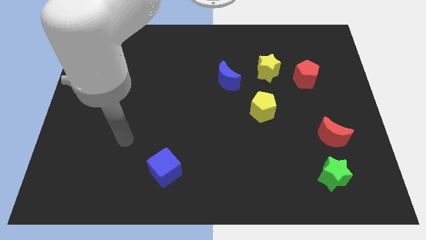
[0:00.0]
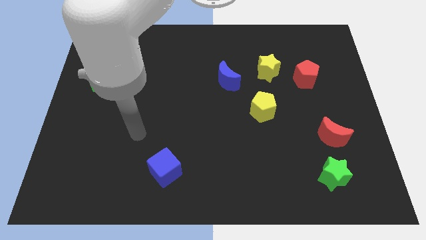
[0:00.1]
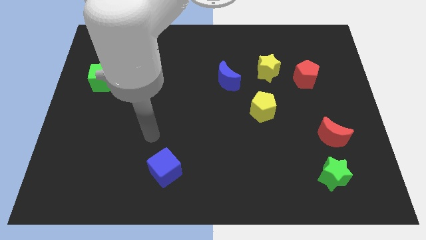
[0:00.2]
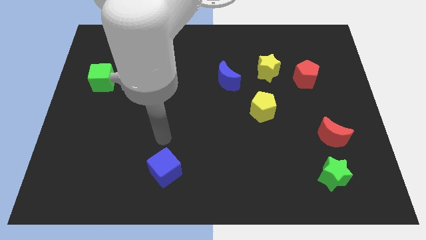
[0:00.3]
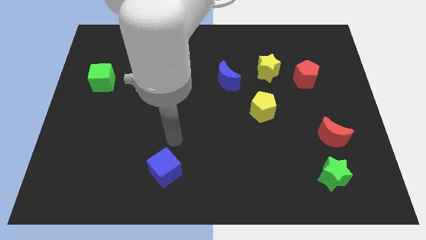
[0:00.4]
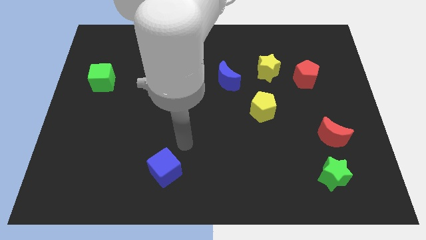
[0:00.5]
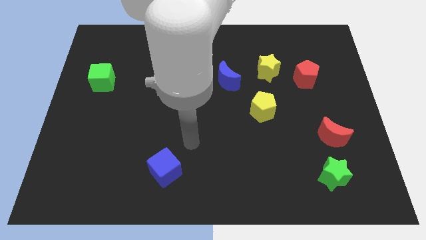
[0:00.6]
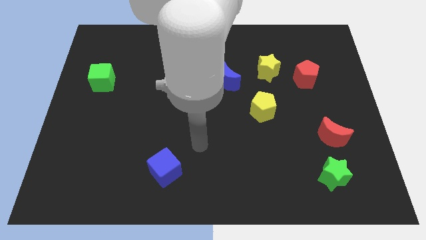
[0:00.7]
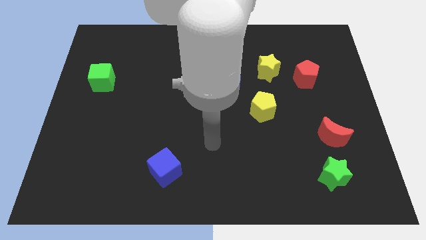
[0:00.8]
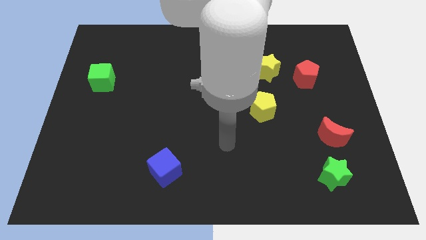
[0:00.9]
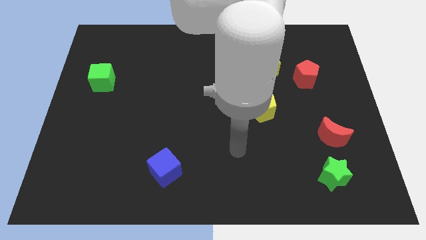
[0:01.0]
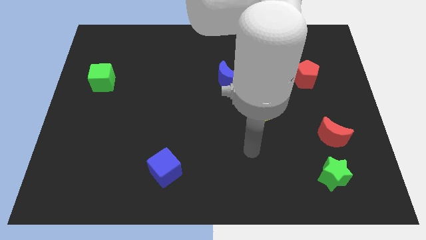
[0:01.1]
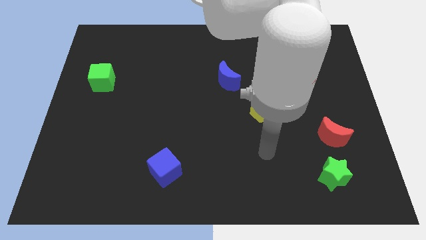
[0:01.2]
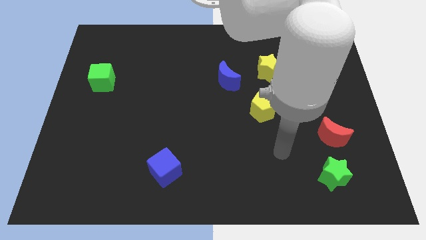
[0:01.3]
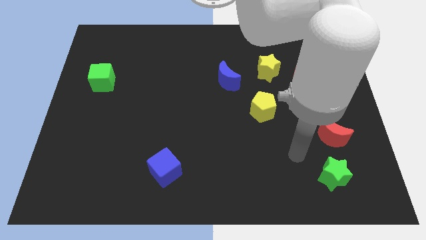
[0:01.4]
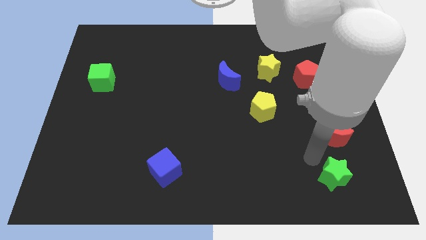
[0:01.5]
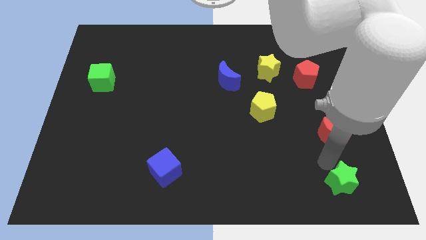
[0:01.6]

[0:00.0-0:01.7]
move the red moon away from the green star

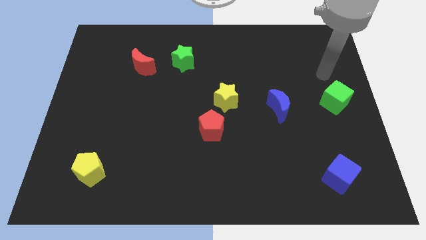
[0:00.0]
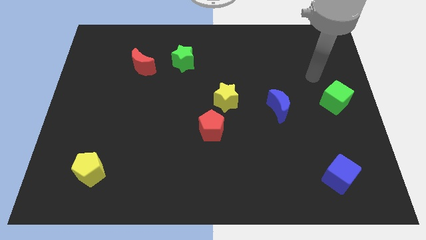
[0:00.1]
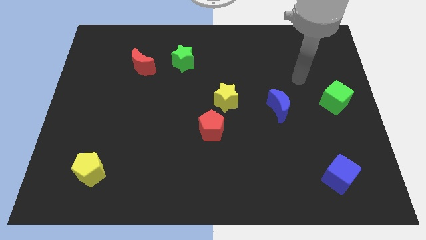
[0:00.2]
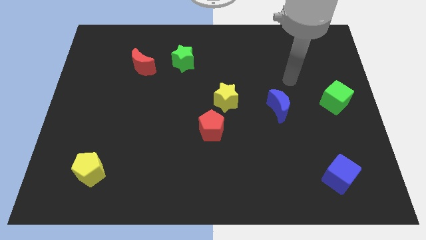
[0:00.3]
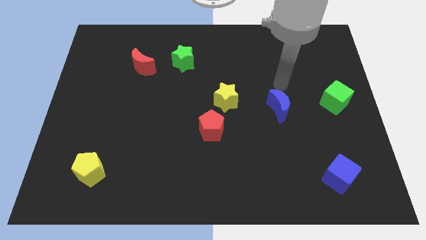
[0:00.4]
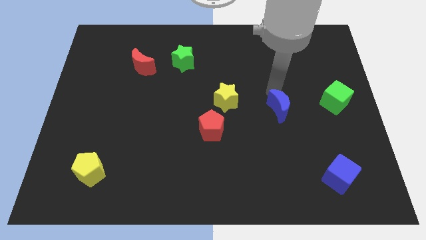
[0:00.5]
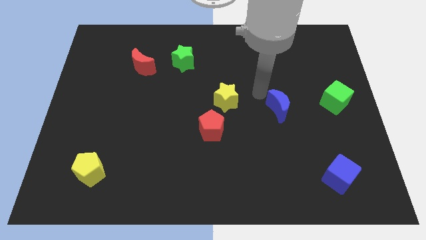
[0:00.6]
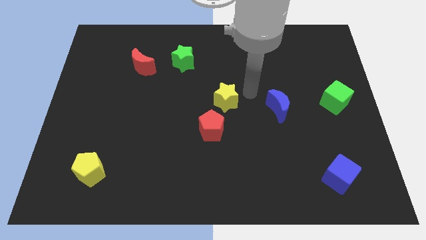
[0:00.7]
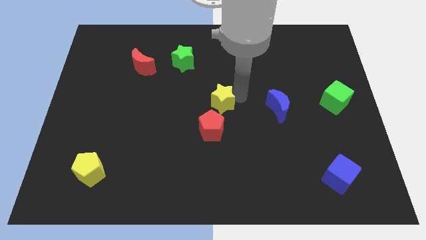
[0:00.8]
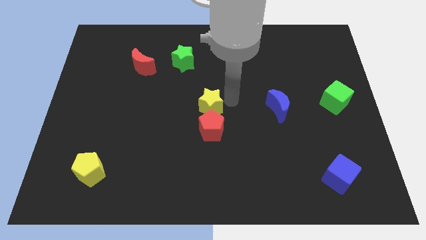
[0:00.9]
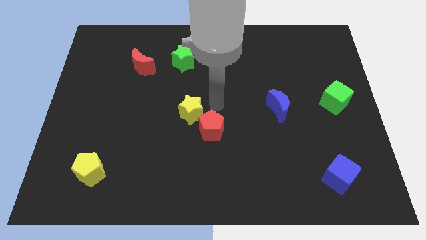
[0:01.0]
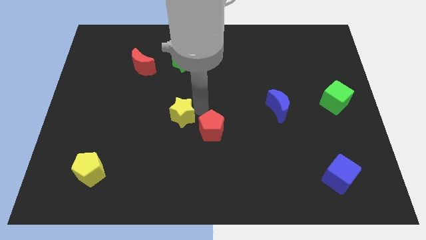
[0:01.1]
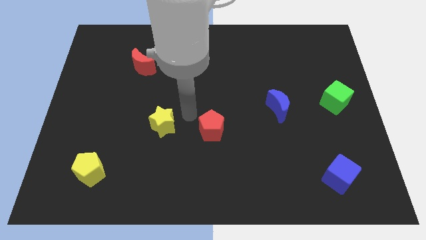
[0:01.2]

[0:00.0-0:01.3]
move the red pentagon away from the yellow star

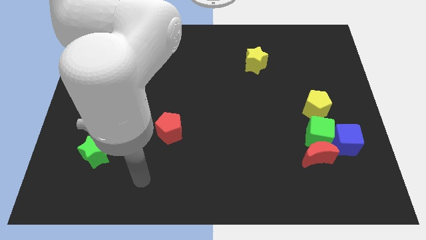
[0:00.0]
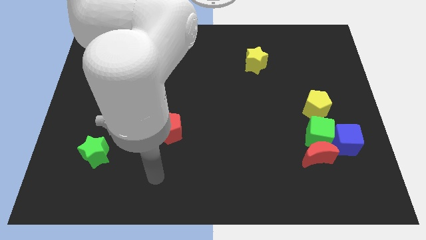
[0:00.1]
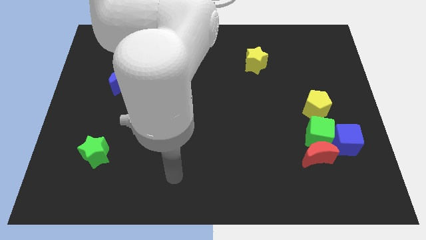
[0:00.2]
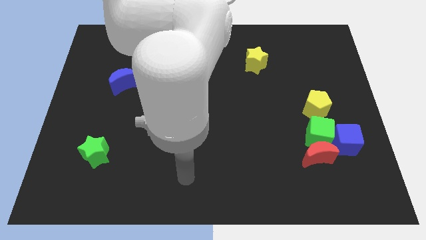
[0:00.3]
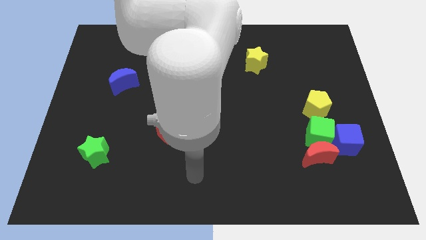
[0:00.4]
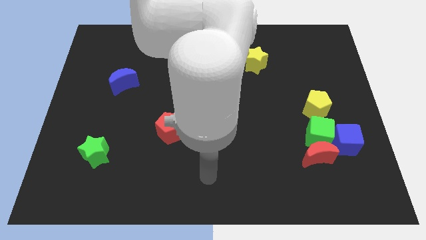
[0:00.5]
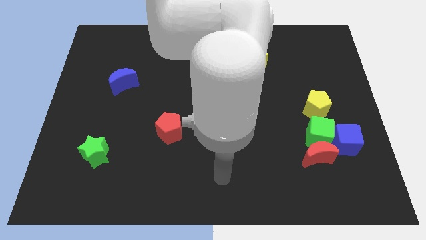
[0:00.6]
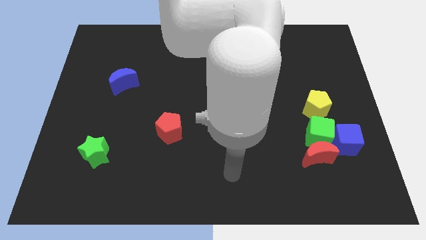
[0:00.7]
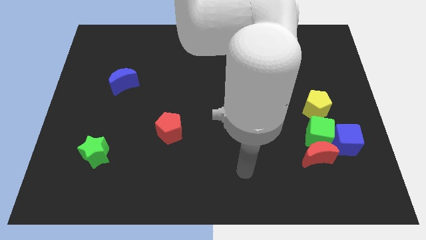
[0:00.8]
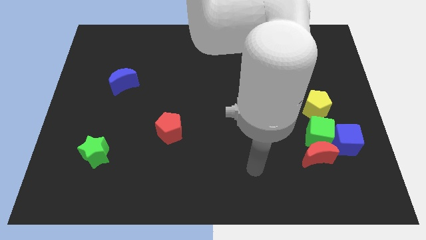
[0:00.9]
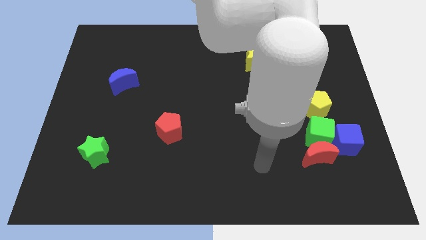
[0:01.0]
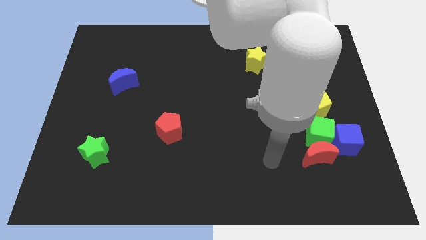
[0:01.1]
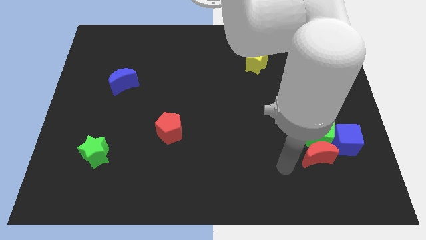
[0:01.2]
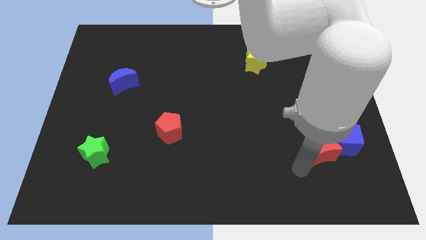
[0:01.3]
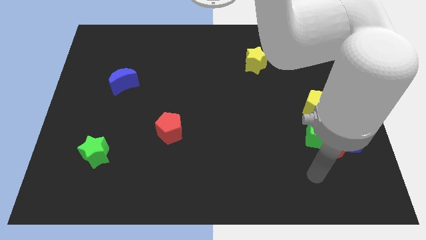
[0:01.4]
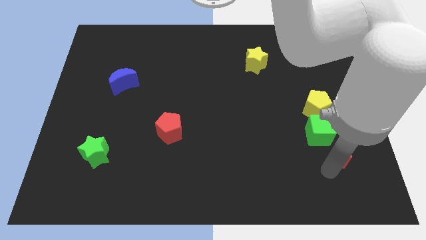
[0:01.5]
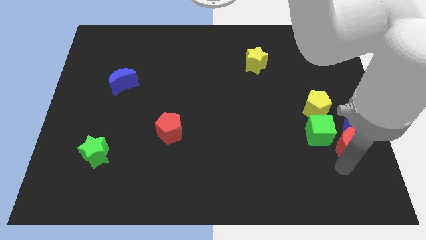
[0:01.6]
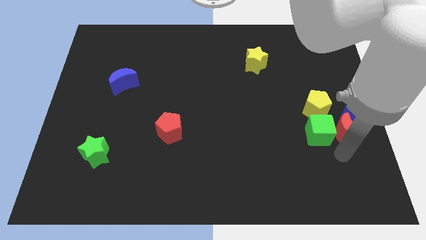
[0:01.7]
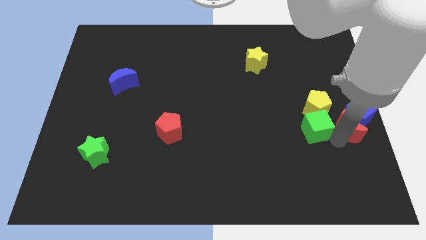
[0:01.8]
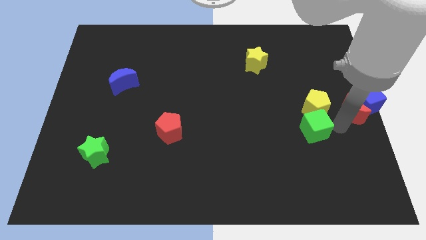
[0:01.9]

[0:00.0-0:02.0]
move the green cube away from the group of blocks

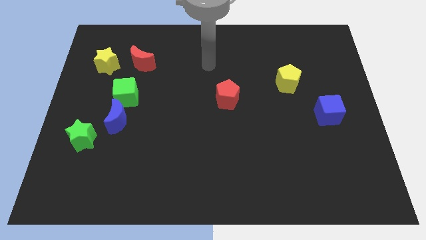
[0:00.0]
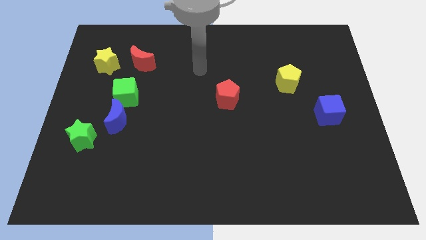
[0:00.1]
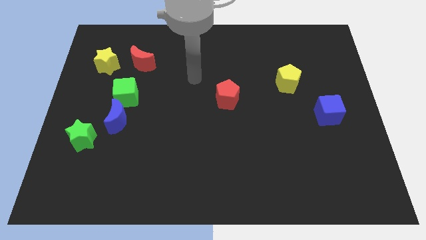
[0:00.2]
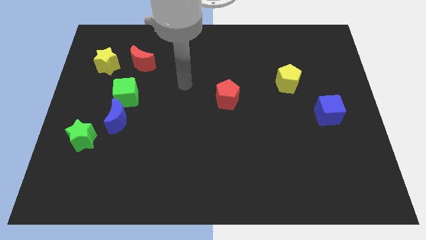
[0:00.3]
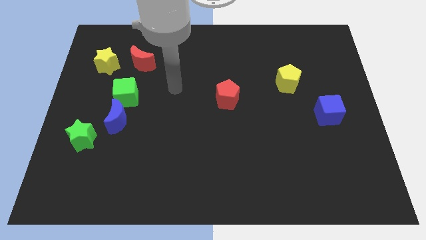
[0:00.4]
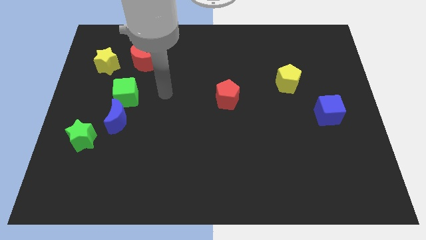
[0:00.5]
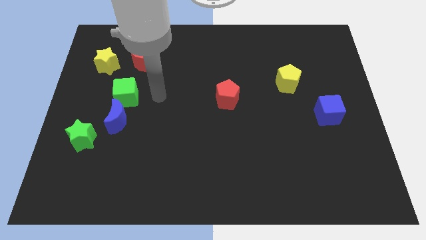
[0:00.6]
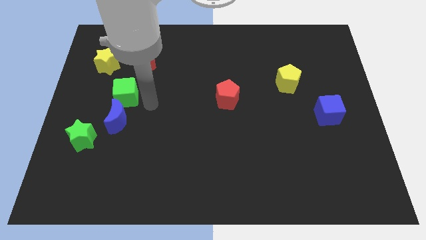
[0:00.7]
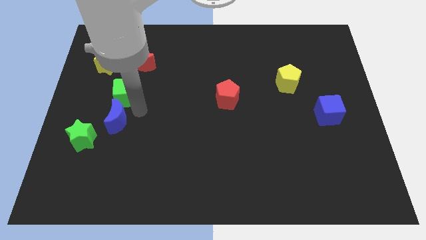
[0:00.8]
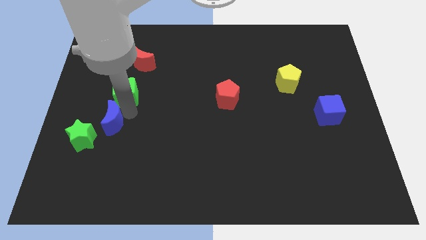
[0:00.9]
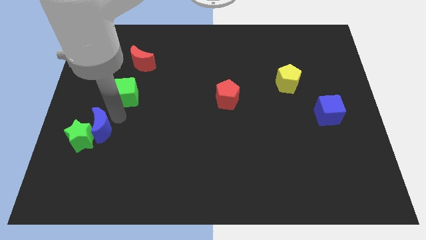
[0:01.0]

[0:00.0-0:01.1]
move the green cube away from the blue moon

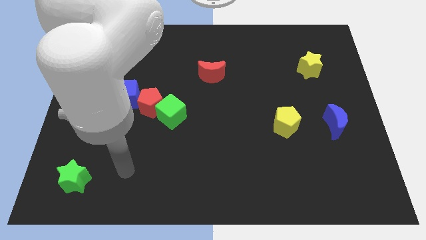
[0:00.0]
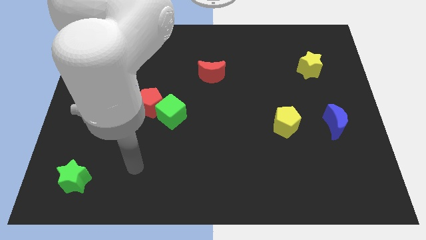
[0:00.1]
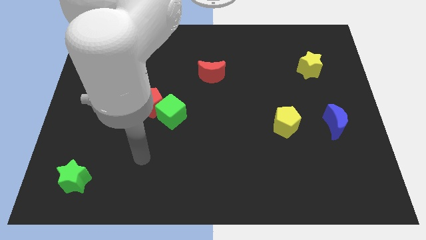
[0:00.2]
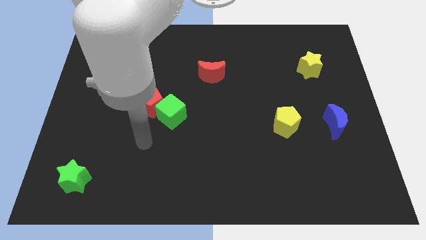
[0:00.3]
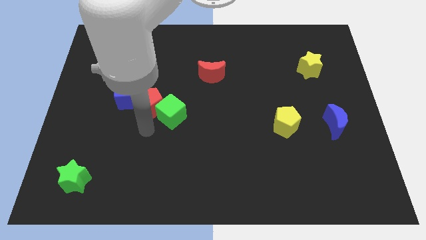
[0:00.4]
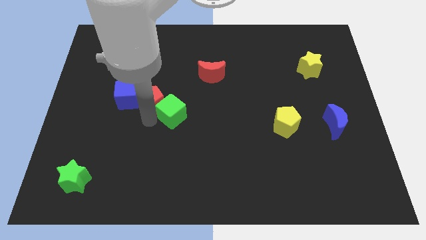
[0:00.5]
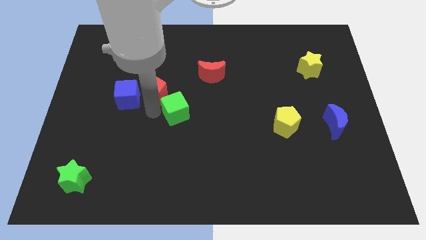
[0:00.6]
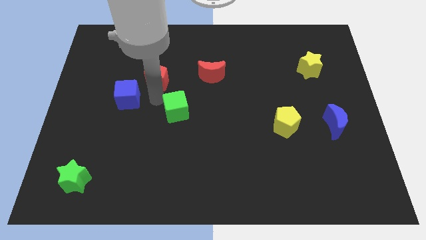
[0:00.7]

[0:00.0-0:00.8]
pull the green cube apart from the red pentagon

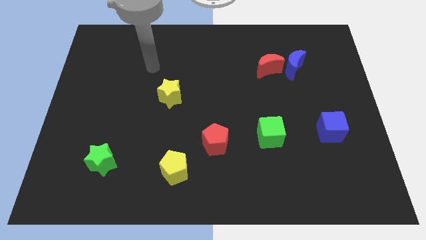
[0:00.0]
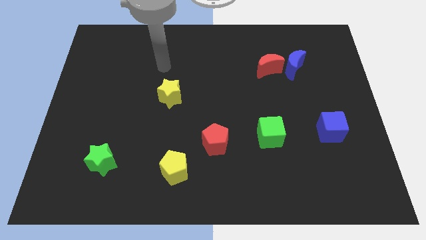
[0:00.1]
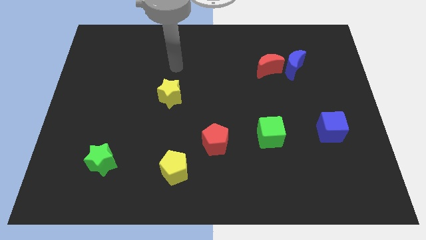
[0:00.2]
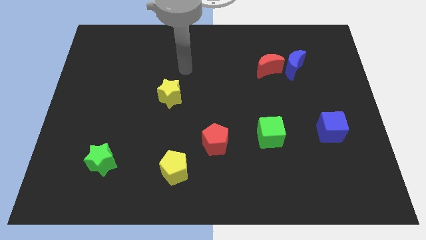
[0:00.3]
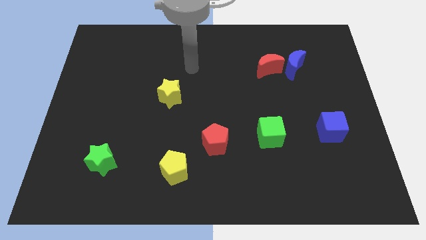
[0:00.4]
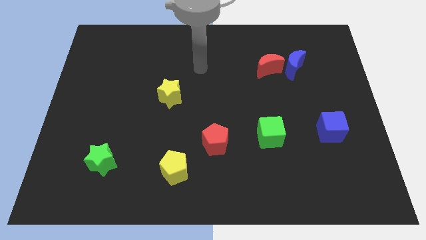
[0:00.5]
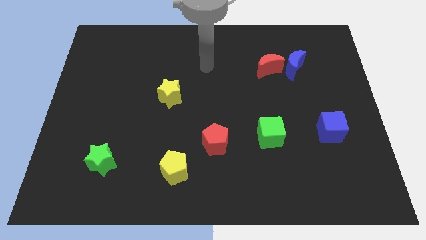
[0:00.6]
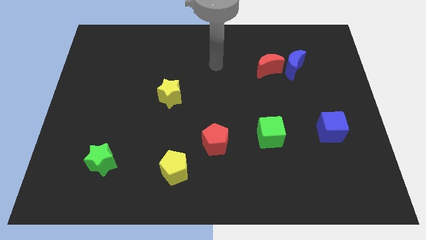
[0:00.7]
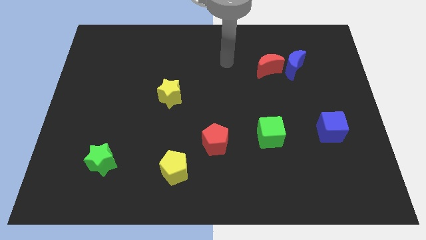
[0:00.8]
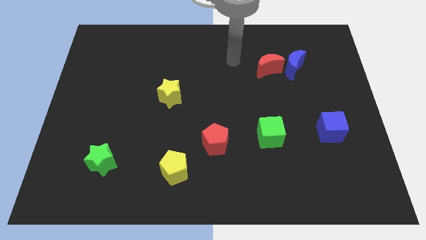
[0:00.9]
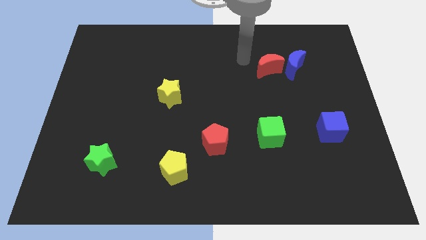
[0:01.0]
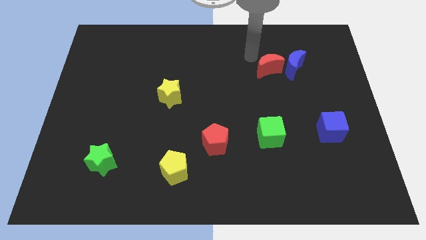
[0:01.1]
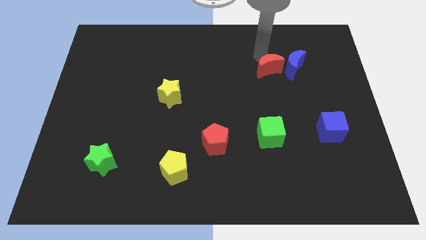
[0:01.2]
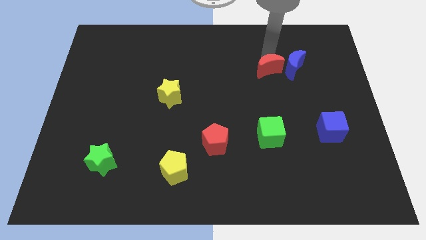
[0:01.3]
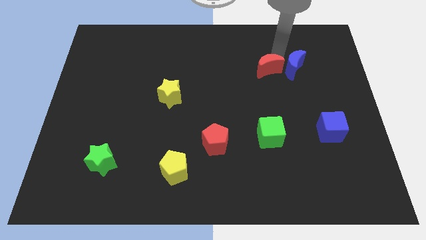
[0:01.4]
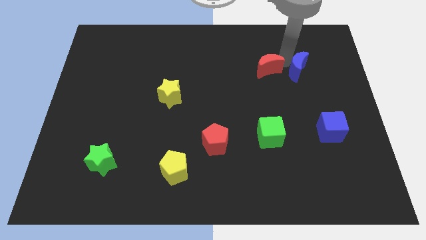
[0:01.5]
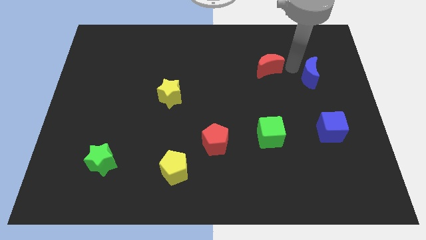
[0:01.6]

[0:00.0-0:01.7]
pull the red moon apart from the blue moon

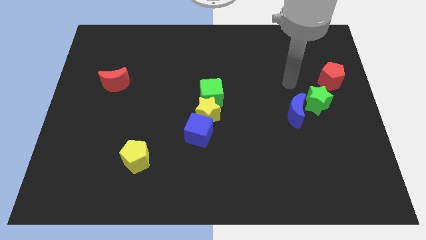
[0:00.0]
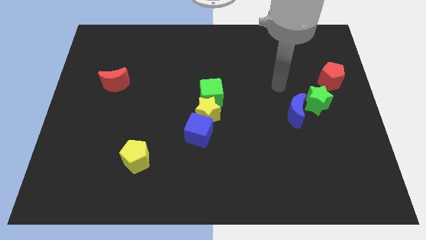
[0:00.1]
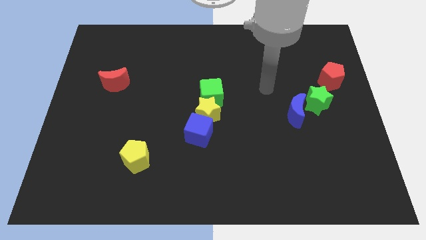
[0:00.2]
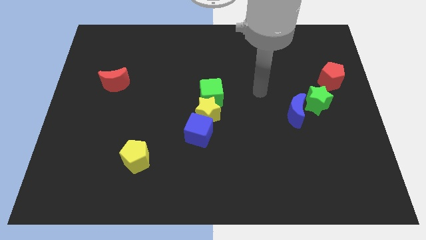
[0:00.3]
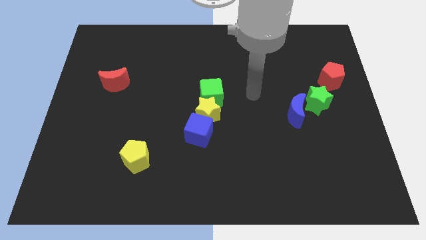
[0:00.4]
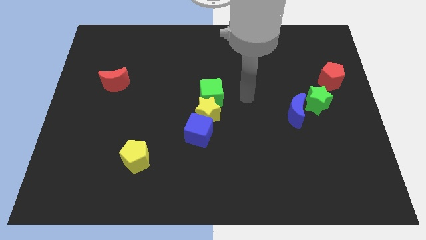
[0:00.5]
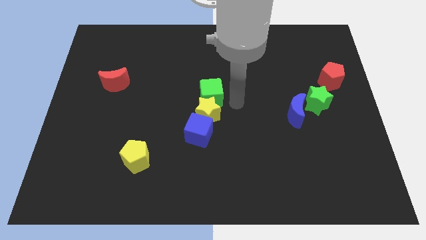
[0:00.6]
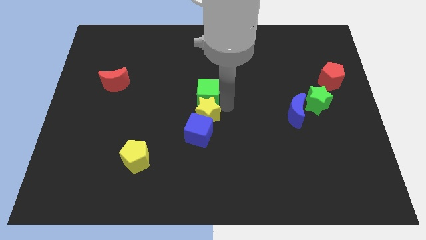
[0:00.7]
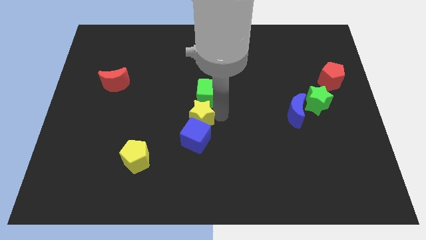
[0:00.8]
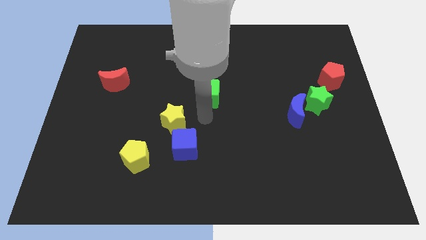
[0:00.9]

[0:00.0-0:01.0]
move the green cube away from the yellow star
